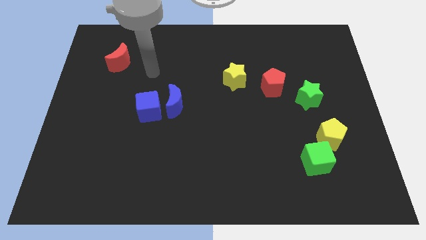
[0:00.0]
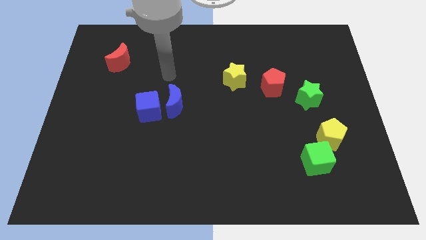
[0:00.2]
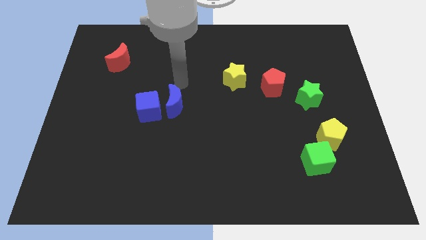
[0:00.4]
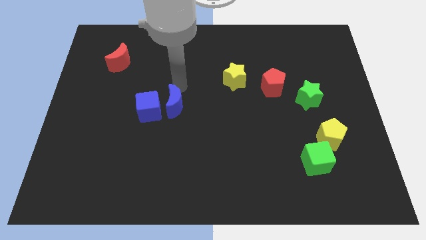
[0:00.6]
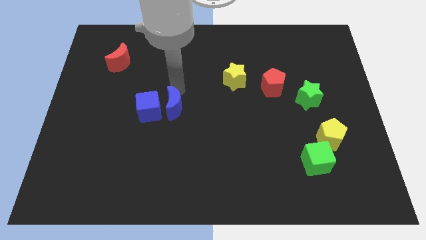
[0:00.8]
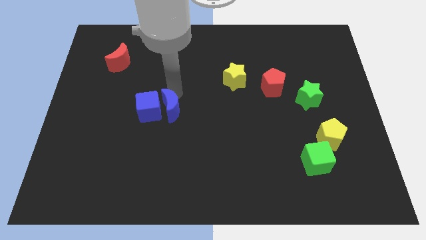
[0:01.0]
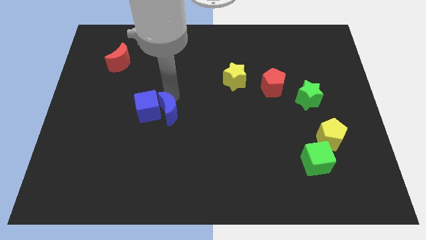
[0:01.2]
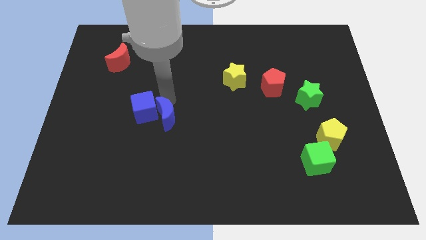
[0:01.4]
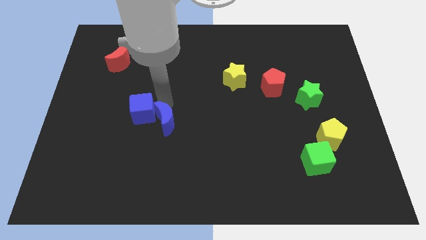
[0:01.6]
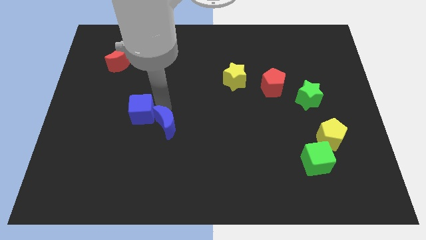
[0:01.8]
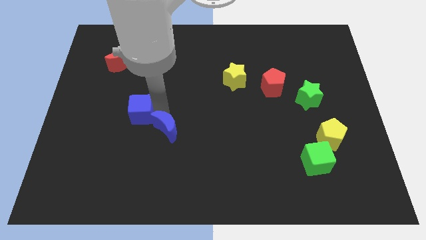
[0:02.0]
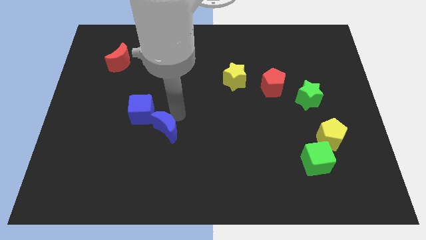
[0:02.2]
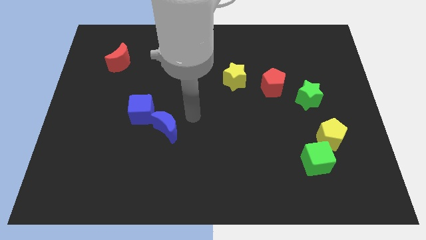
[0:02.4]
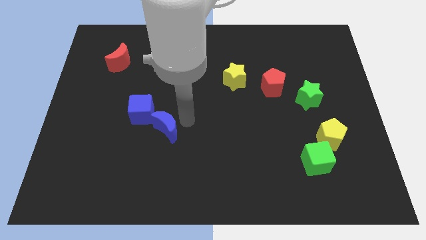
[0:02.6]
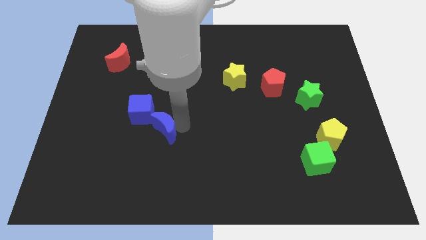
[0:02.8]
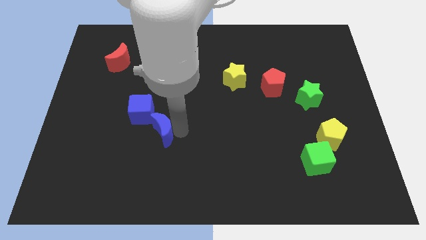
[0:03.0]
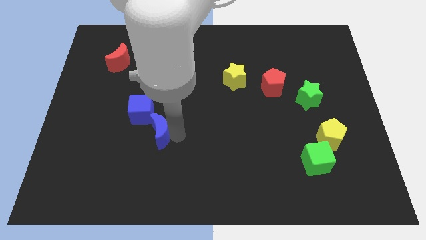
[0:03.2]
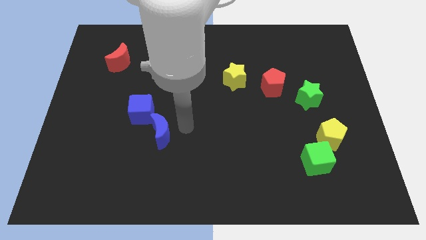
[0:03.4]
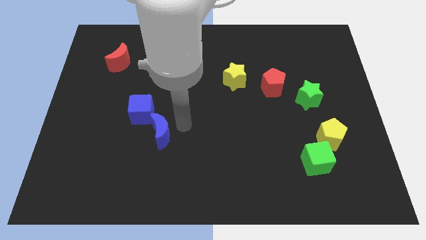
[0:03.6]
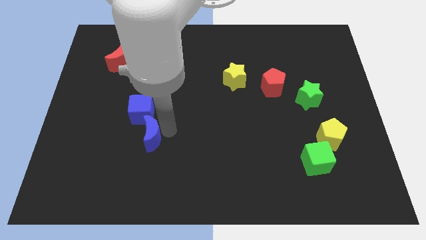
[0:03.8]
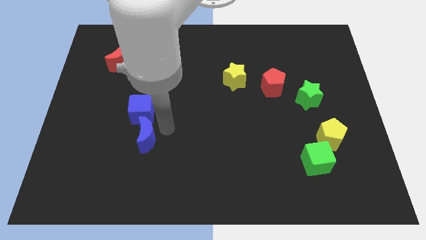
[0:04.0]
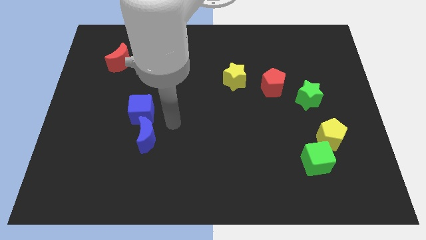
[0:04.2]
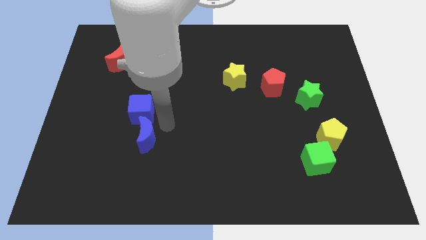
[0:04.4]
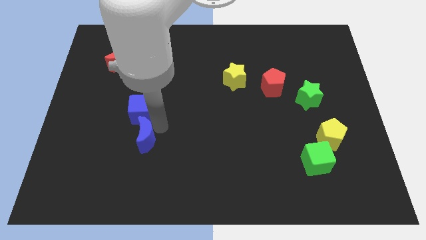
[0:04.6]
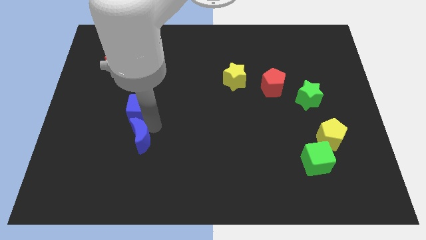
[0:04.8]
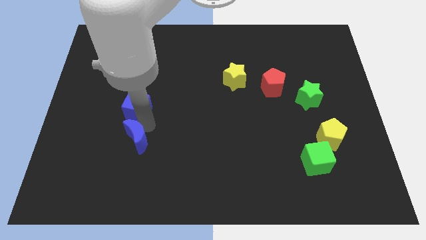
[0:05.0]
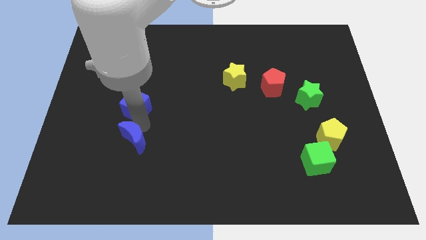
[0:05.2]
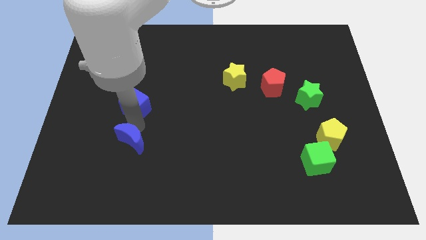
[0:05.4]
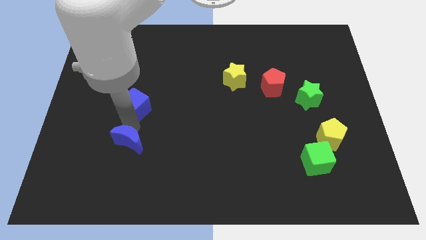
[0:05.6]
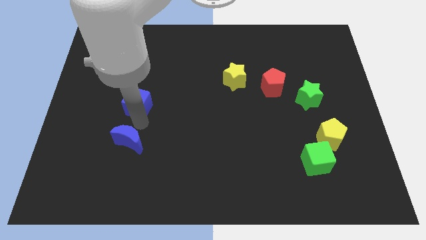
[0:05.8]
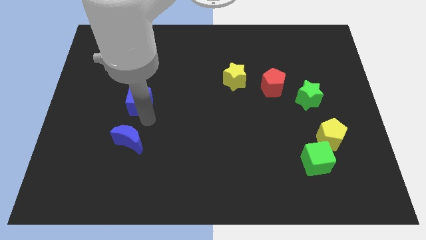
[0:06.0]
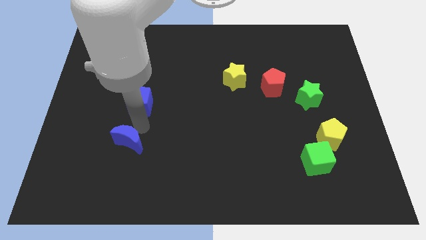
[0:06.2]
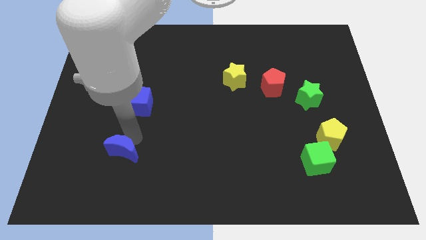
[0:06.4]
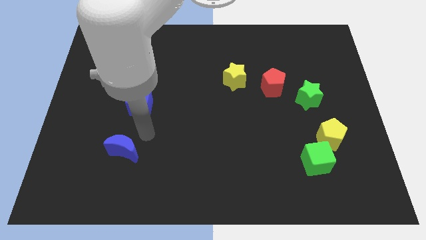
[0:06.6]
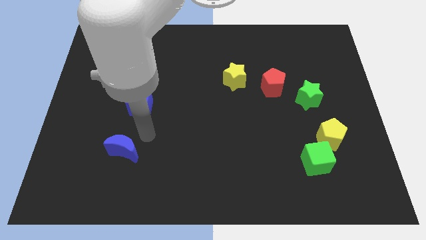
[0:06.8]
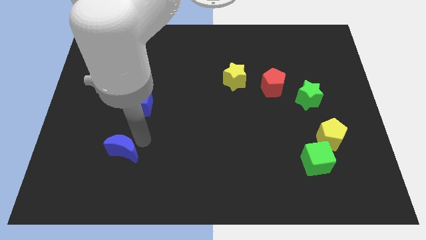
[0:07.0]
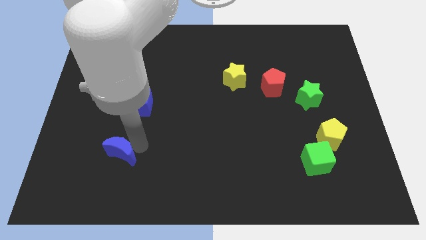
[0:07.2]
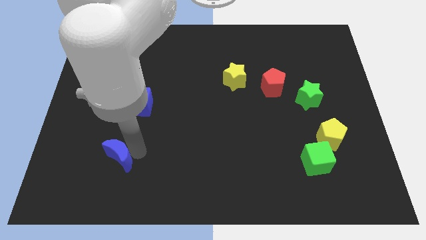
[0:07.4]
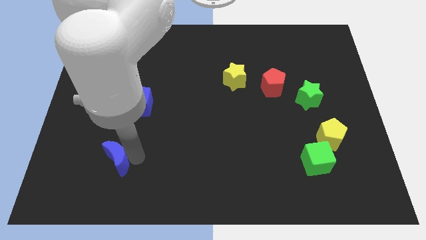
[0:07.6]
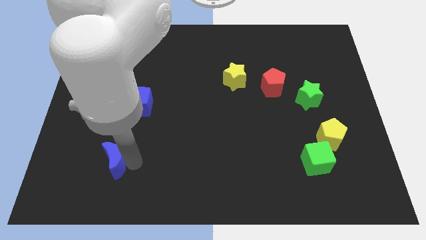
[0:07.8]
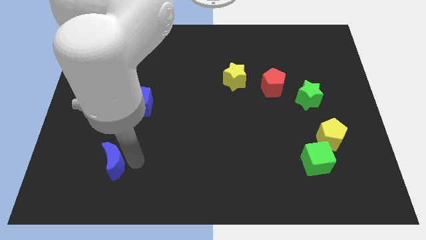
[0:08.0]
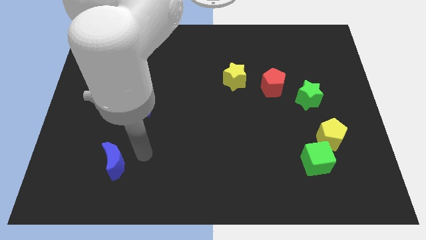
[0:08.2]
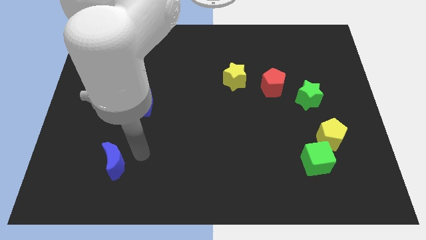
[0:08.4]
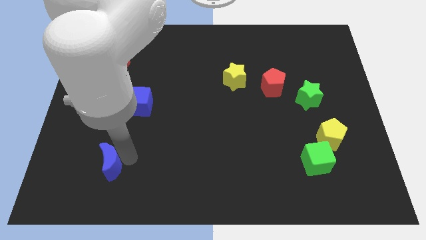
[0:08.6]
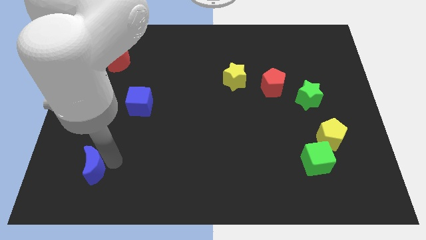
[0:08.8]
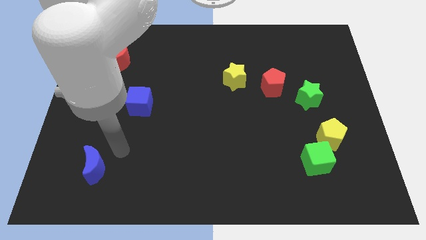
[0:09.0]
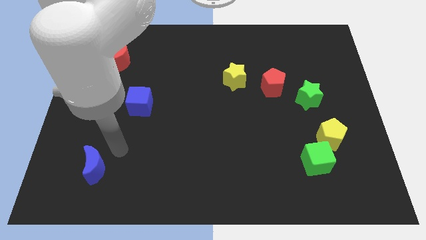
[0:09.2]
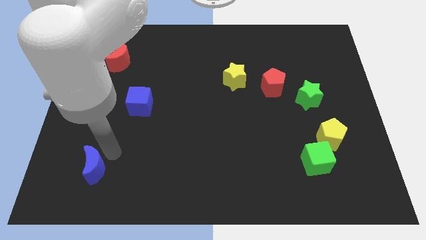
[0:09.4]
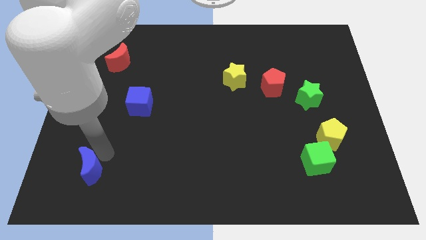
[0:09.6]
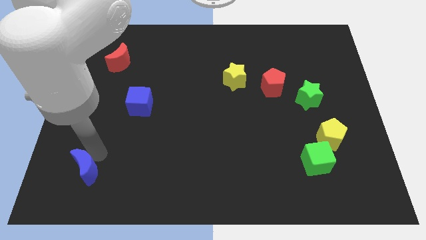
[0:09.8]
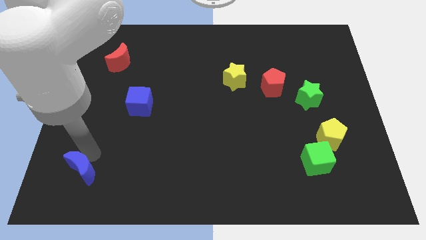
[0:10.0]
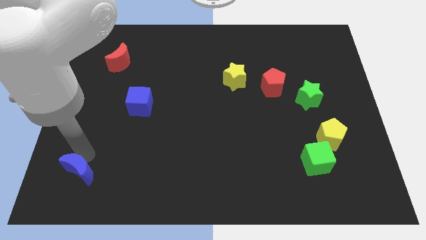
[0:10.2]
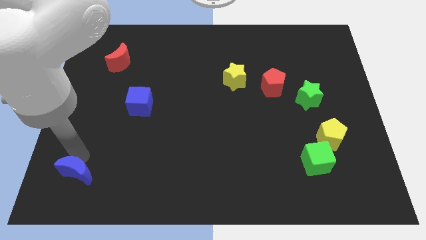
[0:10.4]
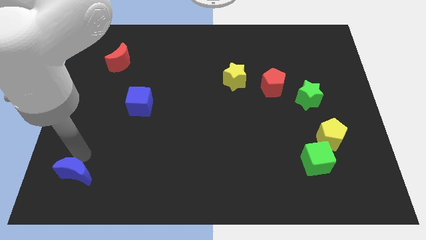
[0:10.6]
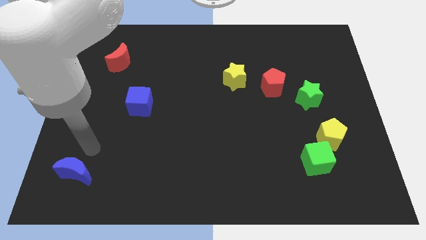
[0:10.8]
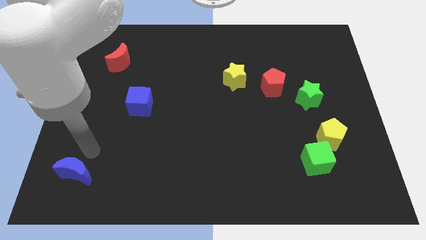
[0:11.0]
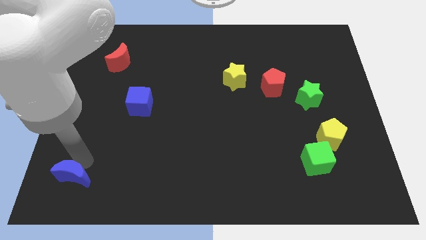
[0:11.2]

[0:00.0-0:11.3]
move the blue moon to the lower left corner

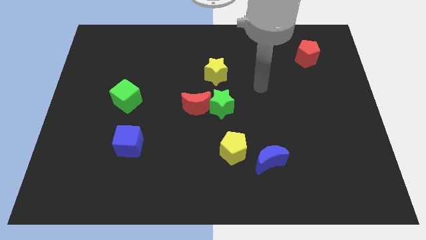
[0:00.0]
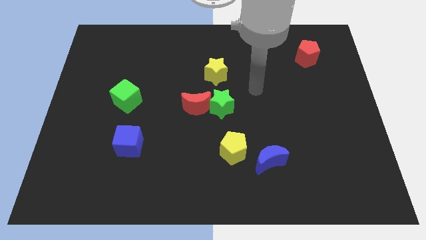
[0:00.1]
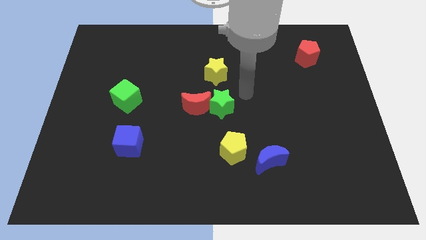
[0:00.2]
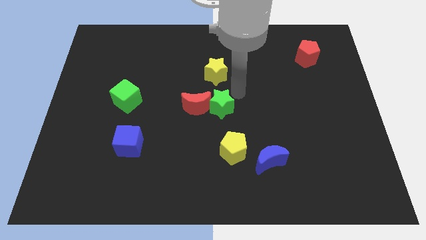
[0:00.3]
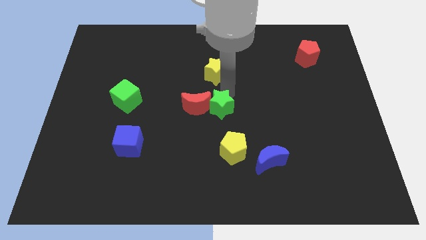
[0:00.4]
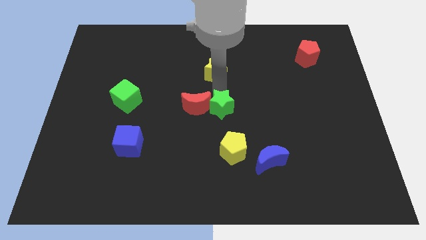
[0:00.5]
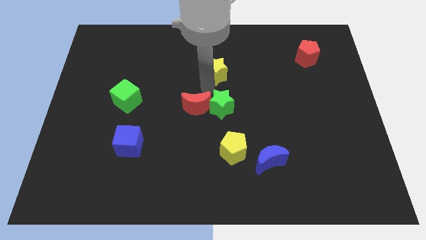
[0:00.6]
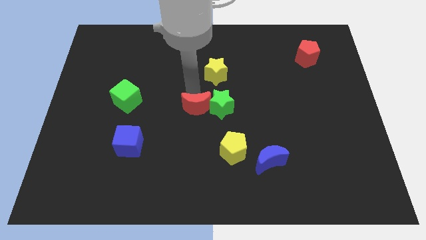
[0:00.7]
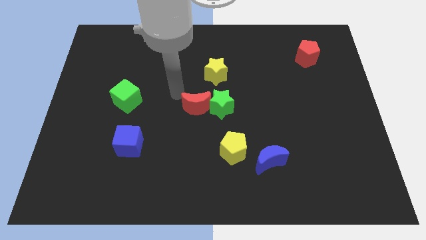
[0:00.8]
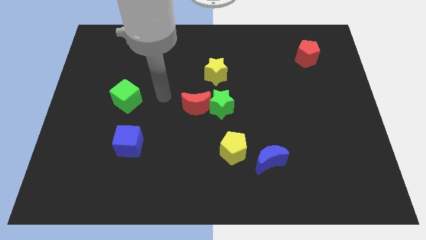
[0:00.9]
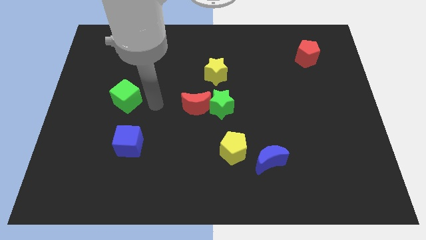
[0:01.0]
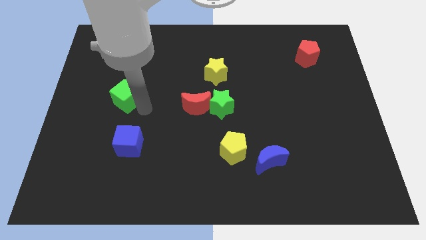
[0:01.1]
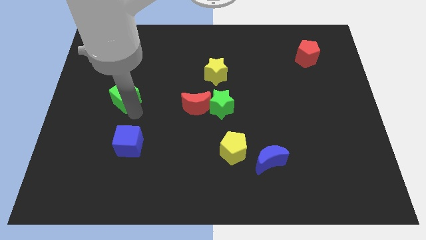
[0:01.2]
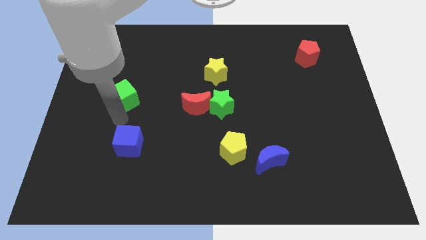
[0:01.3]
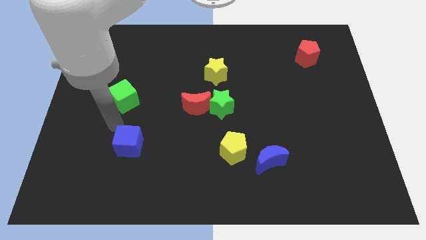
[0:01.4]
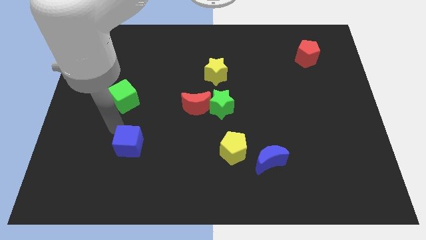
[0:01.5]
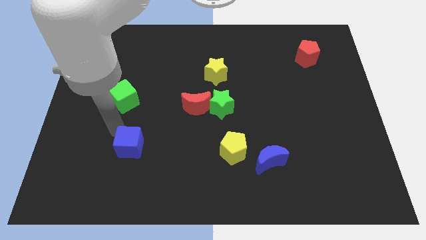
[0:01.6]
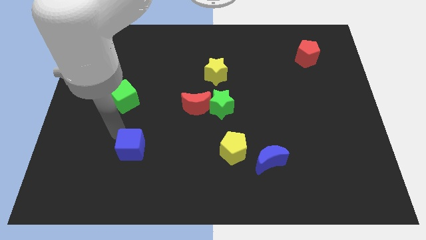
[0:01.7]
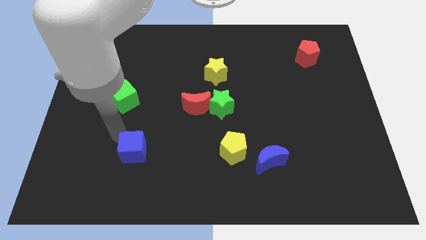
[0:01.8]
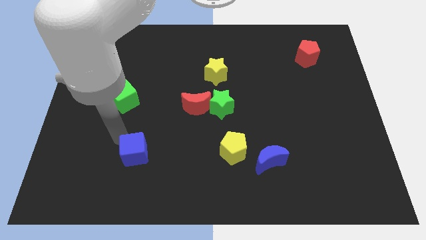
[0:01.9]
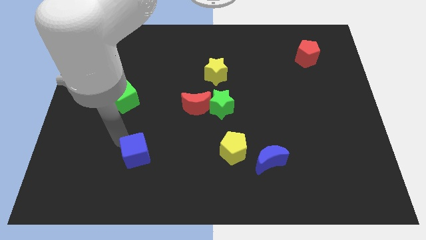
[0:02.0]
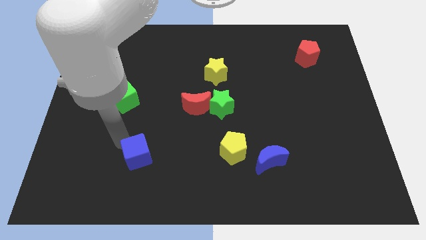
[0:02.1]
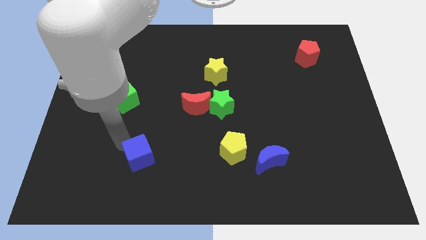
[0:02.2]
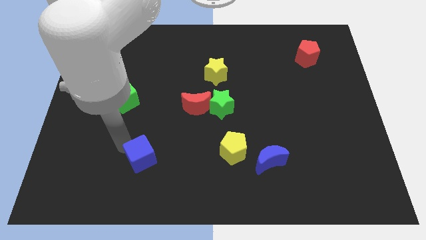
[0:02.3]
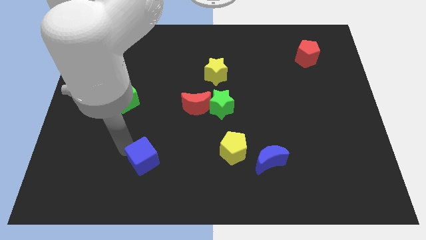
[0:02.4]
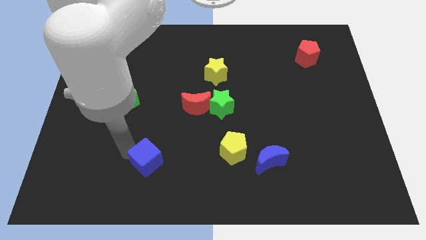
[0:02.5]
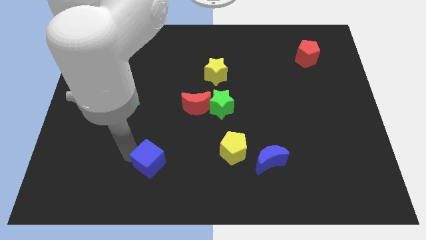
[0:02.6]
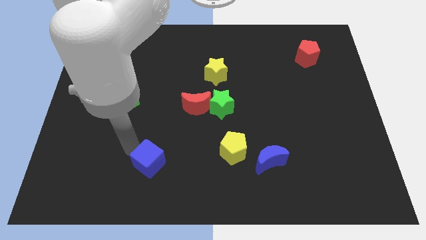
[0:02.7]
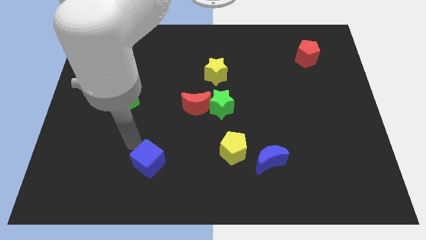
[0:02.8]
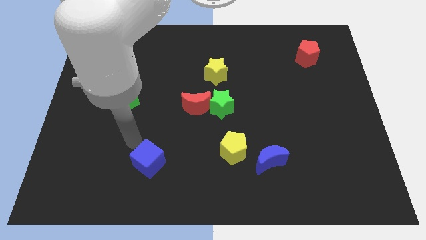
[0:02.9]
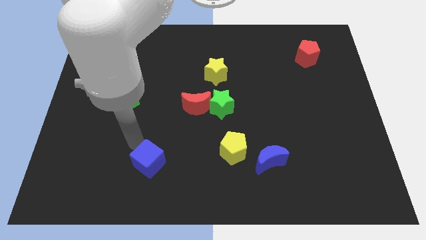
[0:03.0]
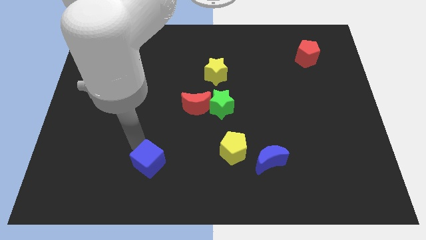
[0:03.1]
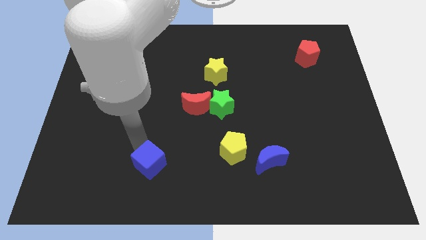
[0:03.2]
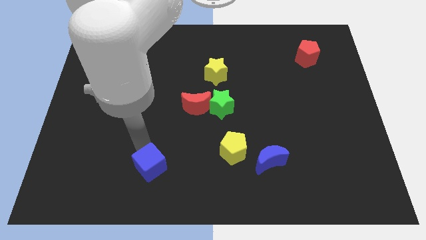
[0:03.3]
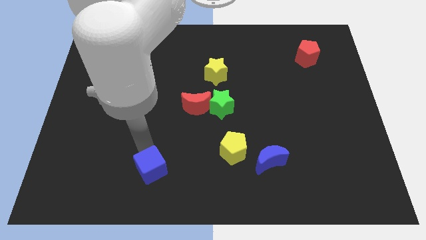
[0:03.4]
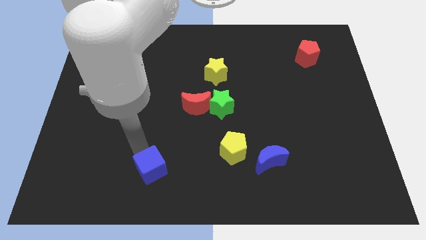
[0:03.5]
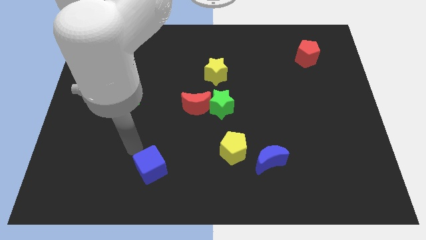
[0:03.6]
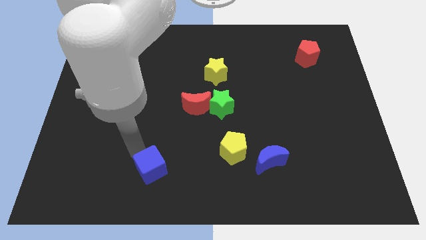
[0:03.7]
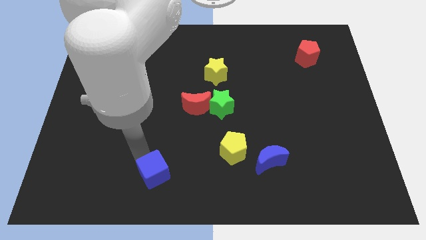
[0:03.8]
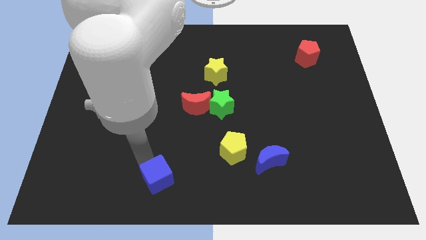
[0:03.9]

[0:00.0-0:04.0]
move the blue cube to the bottom side
